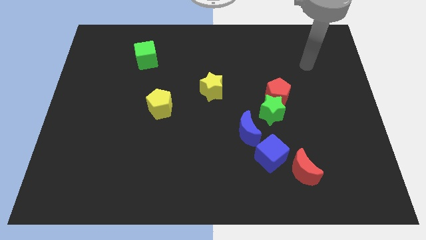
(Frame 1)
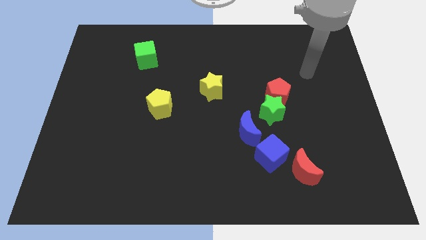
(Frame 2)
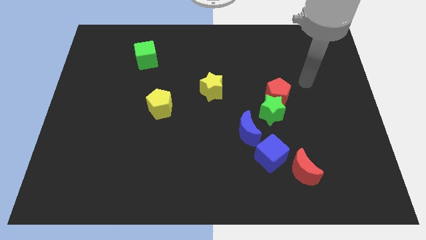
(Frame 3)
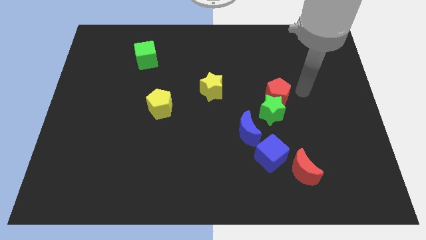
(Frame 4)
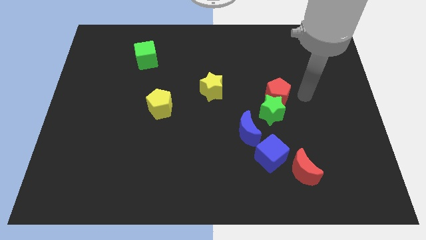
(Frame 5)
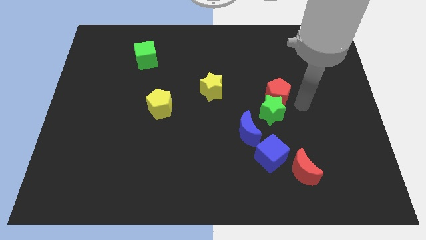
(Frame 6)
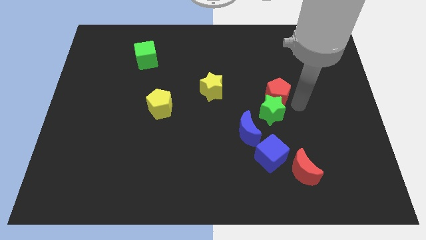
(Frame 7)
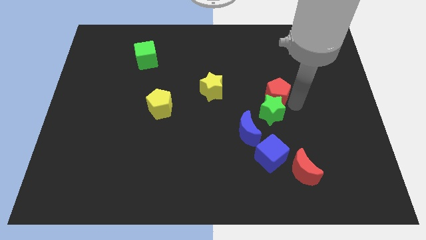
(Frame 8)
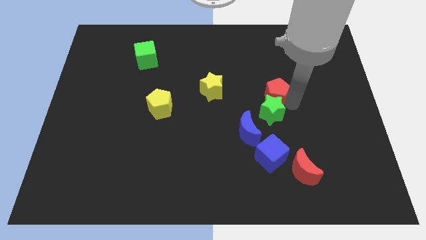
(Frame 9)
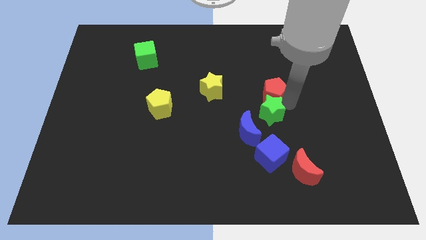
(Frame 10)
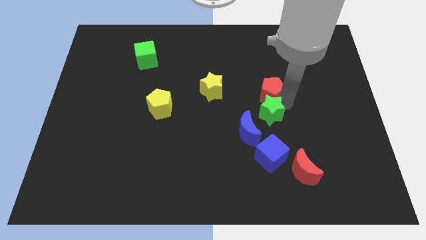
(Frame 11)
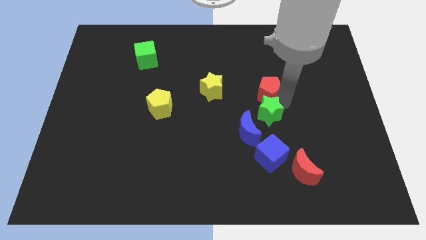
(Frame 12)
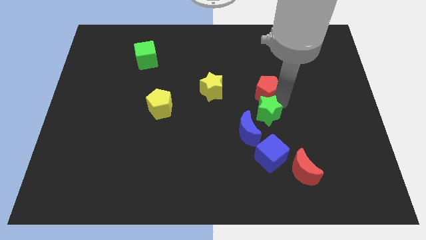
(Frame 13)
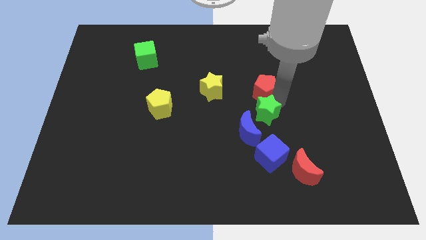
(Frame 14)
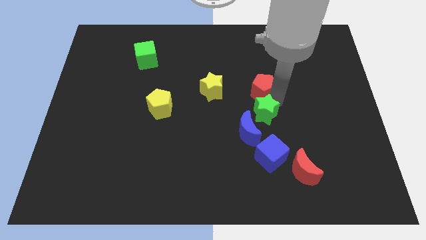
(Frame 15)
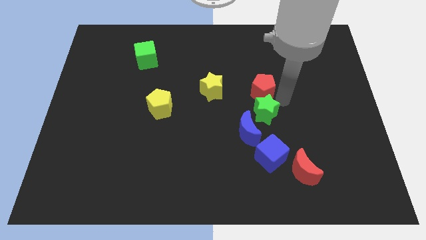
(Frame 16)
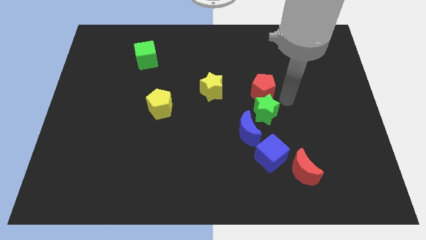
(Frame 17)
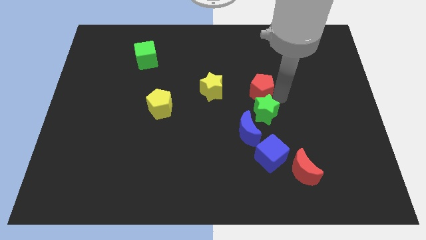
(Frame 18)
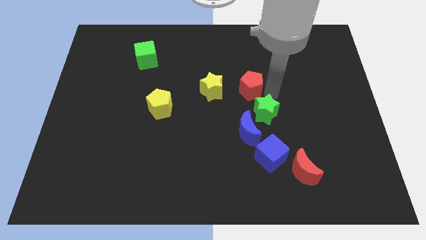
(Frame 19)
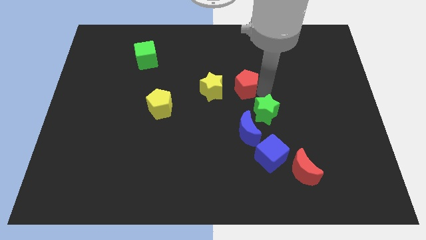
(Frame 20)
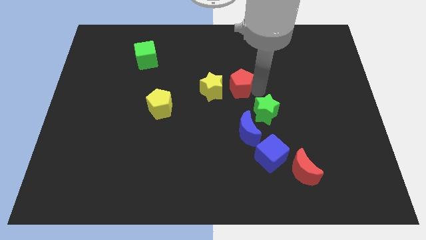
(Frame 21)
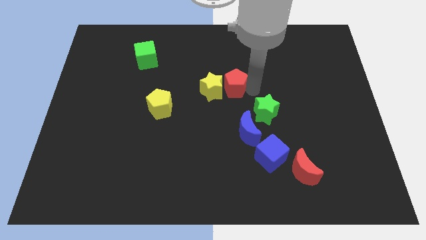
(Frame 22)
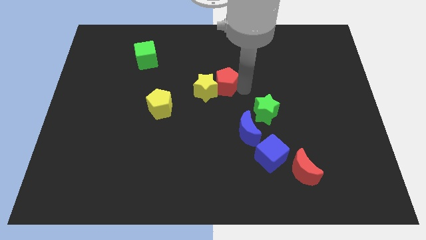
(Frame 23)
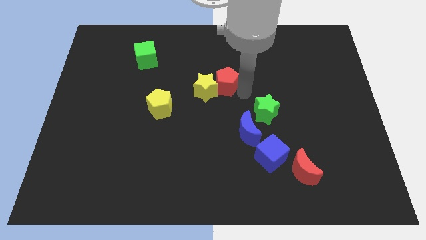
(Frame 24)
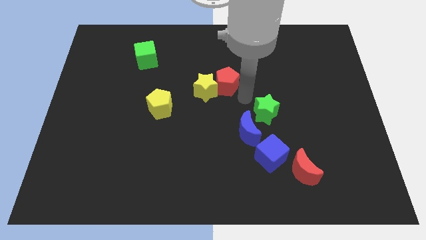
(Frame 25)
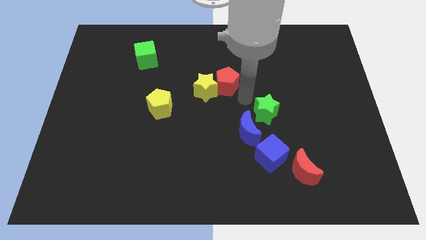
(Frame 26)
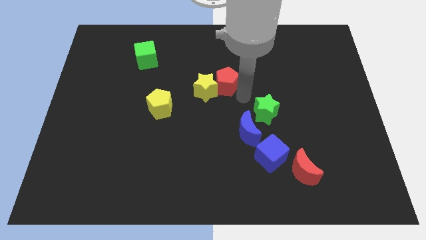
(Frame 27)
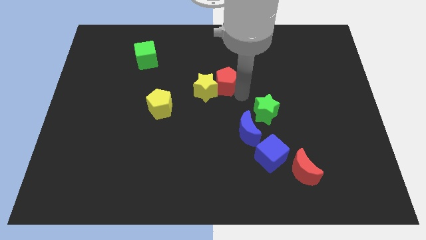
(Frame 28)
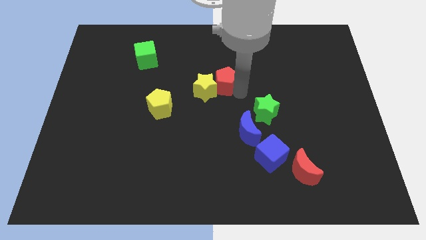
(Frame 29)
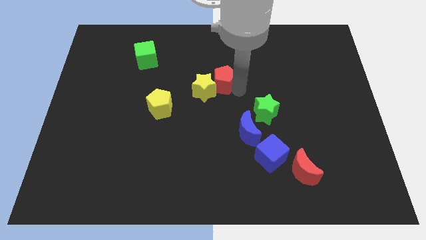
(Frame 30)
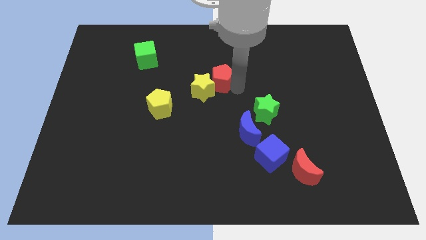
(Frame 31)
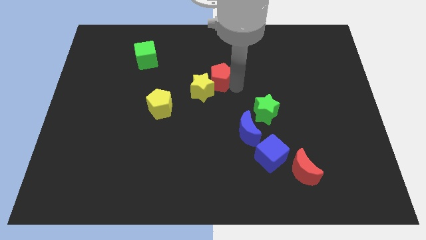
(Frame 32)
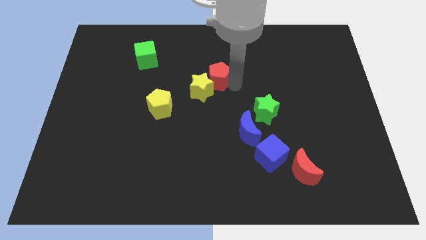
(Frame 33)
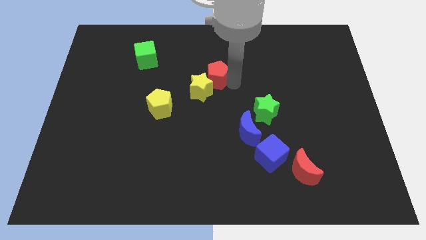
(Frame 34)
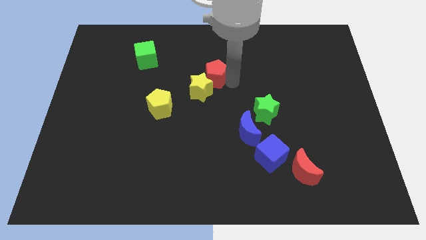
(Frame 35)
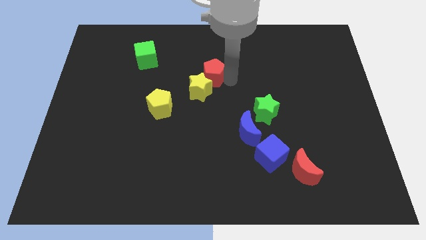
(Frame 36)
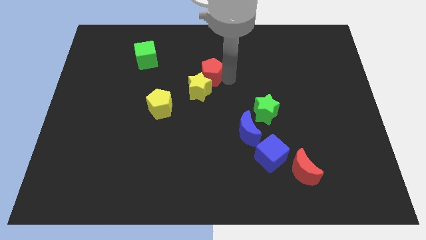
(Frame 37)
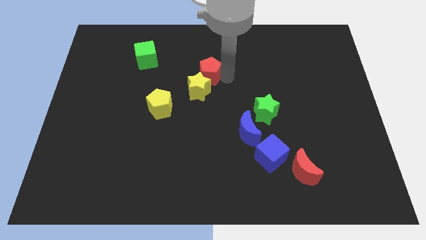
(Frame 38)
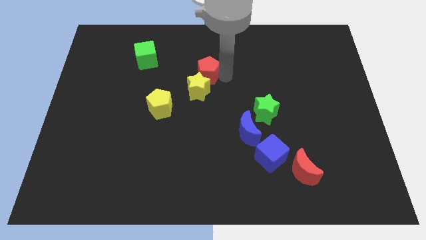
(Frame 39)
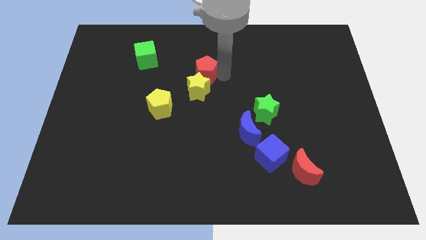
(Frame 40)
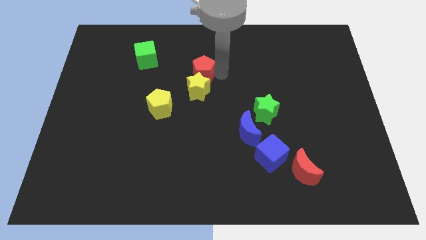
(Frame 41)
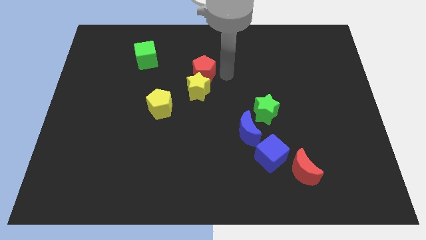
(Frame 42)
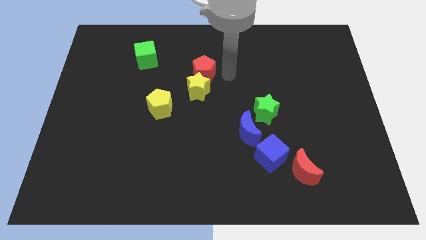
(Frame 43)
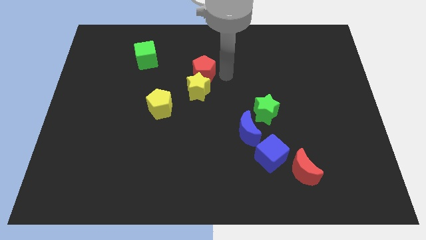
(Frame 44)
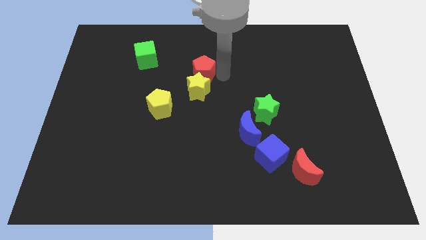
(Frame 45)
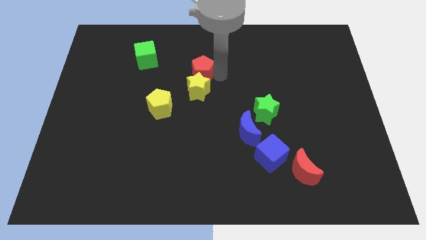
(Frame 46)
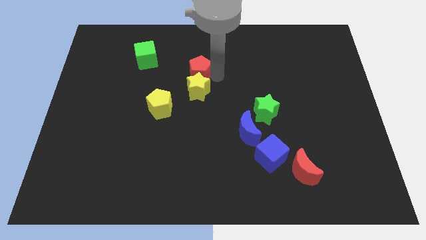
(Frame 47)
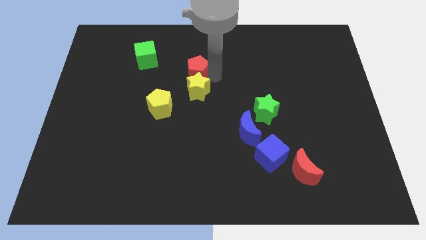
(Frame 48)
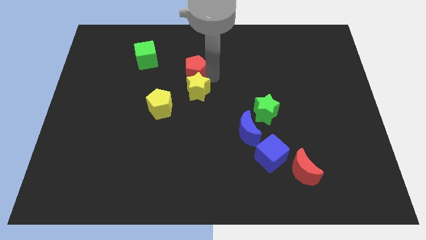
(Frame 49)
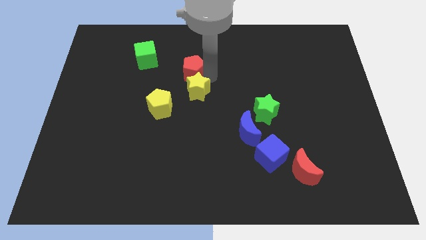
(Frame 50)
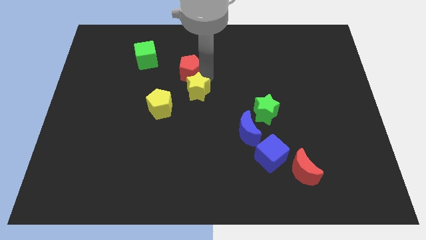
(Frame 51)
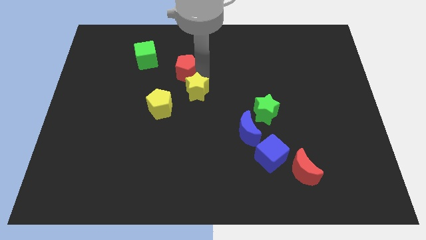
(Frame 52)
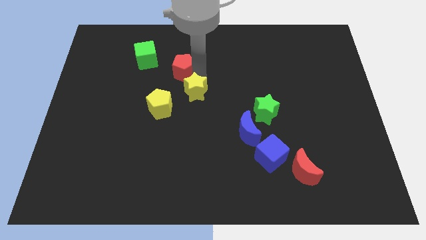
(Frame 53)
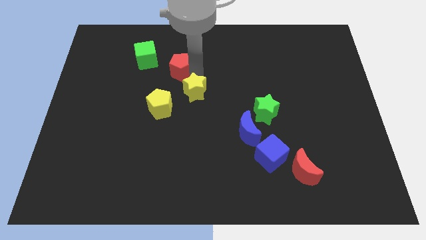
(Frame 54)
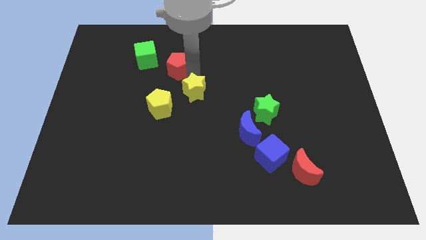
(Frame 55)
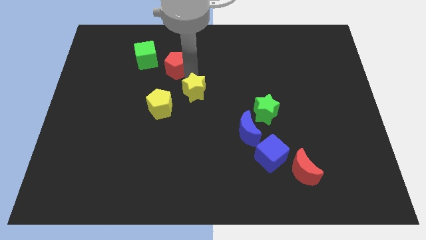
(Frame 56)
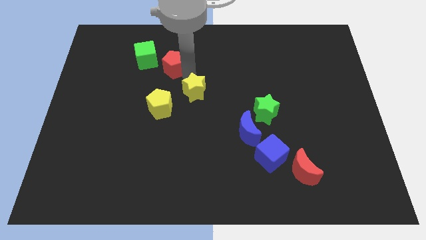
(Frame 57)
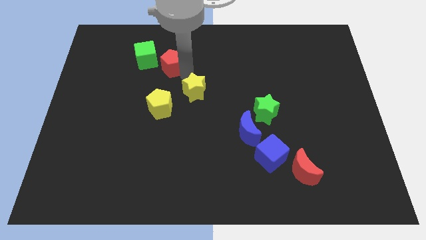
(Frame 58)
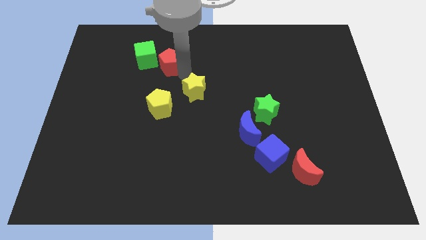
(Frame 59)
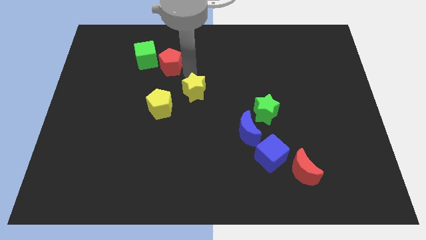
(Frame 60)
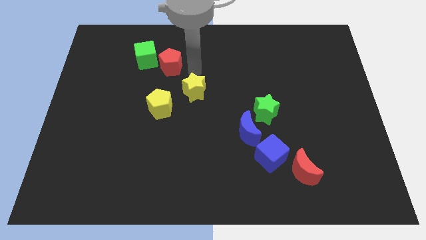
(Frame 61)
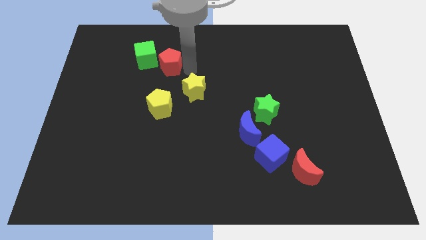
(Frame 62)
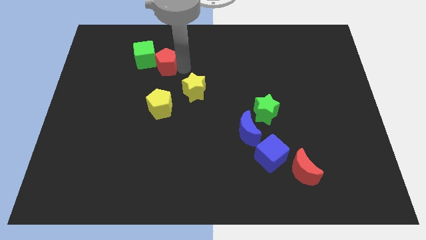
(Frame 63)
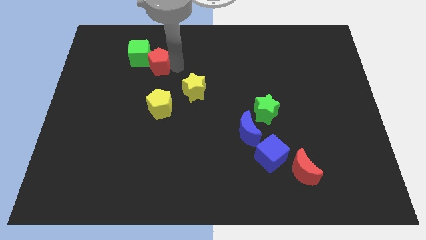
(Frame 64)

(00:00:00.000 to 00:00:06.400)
slide the red pentagon to the green cube

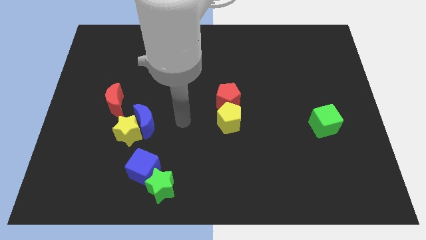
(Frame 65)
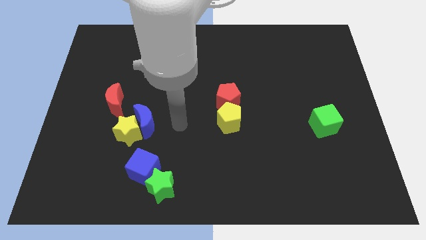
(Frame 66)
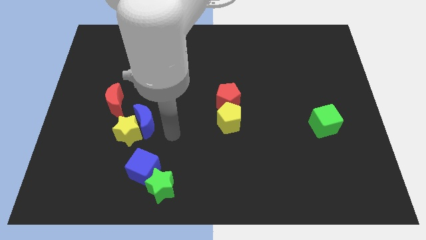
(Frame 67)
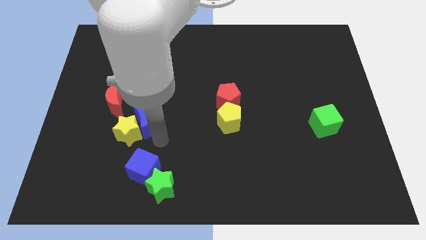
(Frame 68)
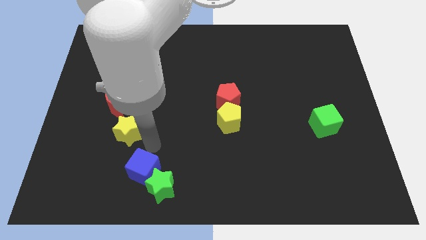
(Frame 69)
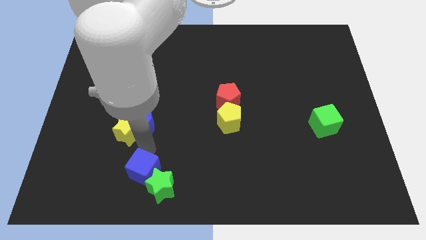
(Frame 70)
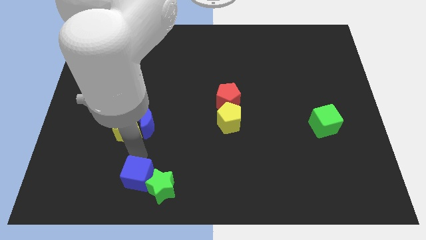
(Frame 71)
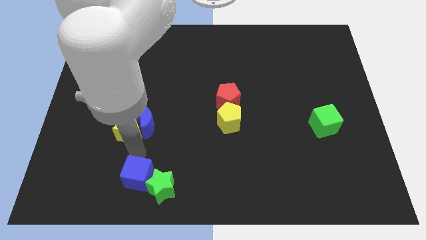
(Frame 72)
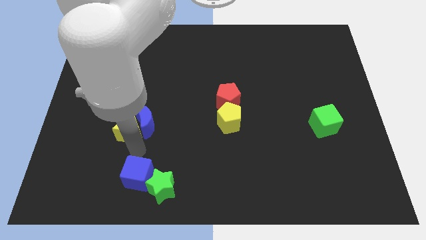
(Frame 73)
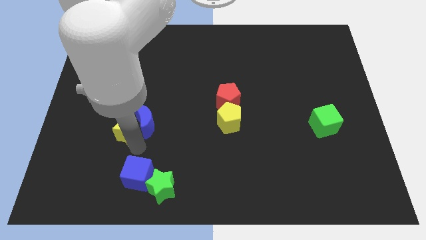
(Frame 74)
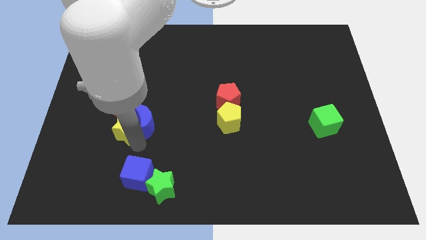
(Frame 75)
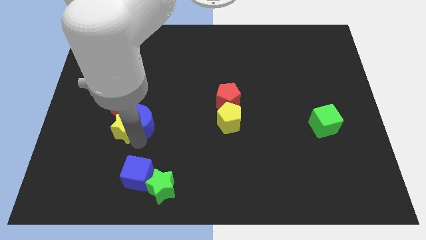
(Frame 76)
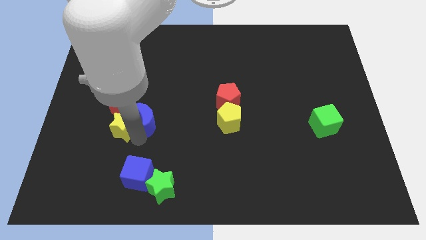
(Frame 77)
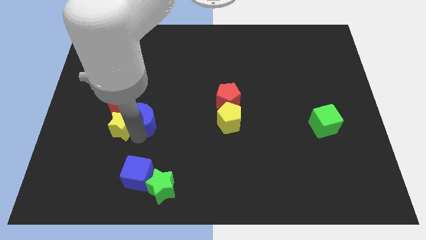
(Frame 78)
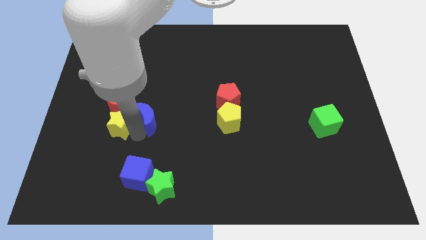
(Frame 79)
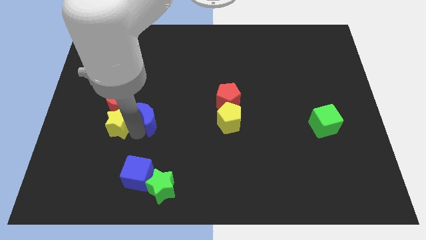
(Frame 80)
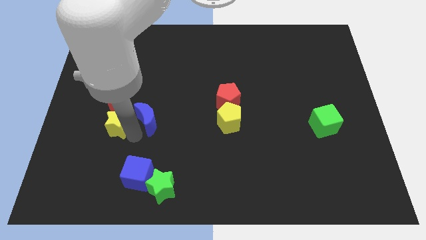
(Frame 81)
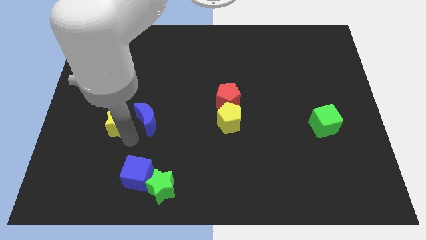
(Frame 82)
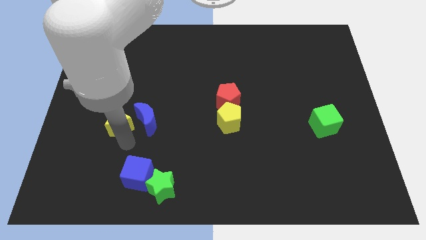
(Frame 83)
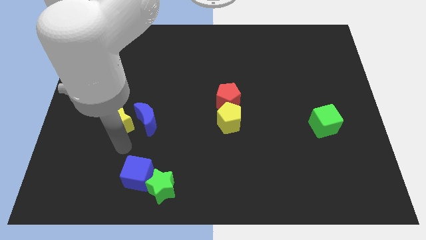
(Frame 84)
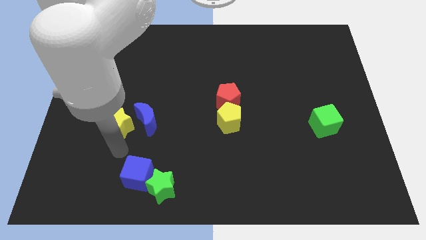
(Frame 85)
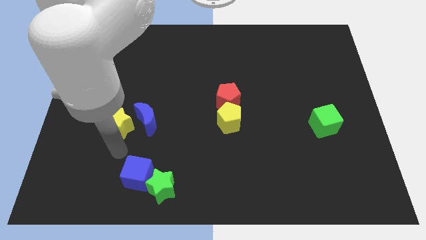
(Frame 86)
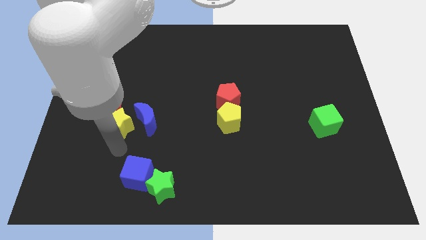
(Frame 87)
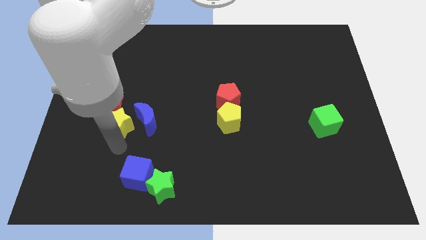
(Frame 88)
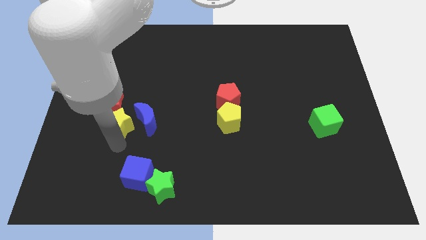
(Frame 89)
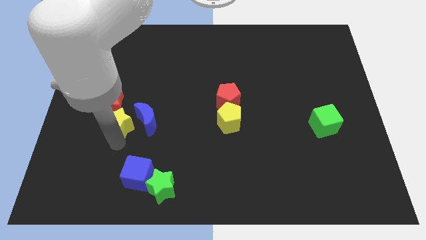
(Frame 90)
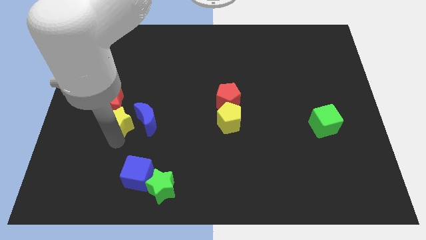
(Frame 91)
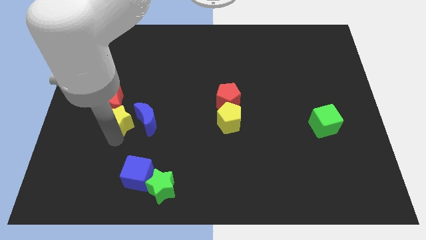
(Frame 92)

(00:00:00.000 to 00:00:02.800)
push the yellow star towards the red moon
